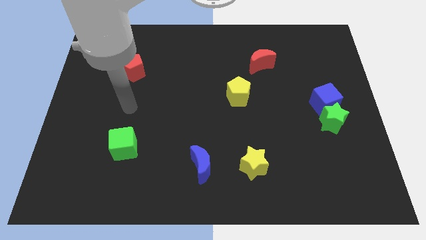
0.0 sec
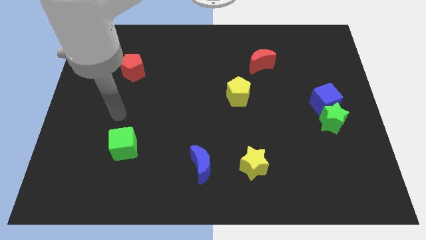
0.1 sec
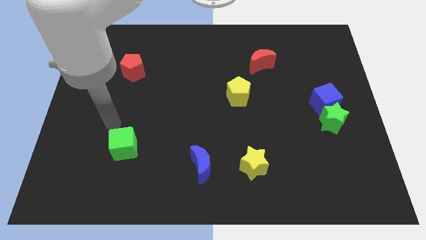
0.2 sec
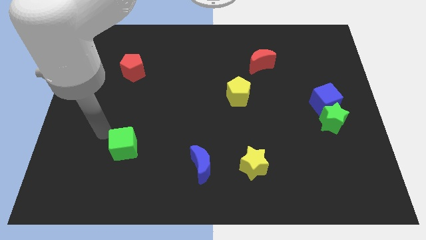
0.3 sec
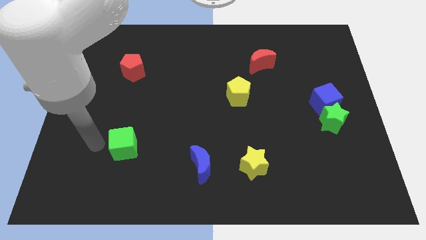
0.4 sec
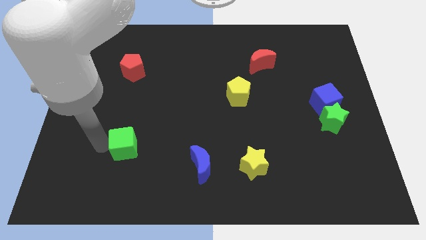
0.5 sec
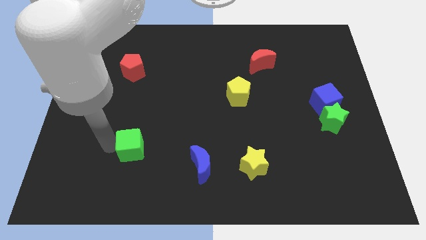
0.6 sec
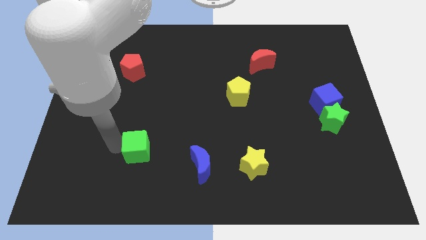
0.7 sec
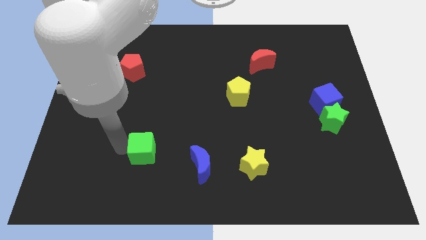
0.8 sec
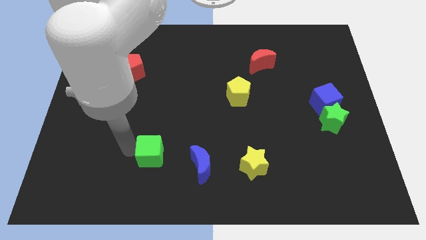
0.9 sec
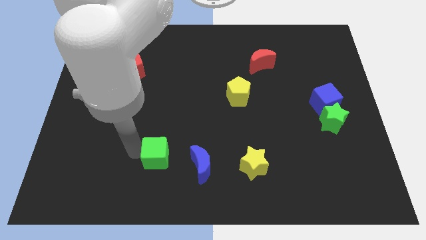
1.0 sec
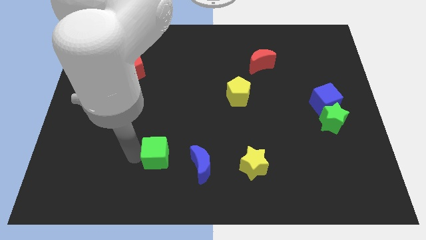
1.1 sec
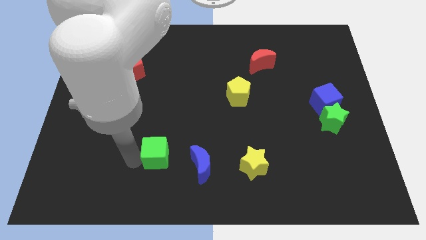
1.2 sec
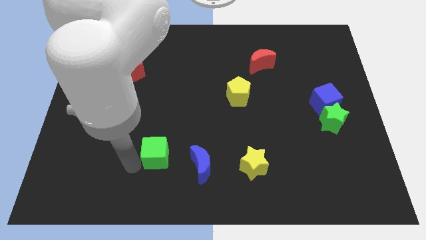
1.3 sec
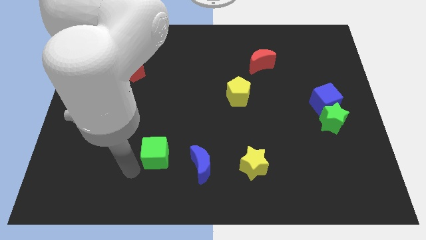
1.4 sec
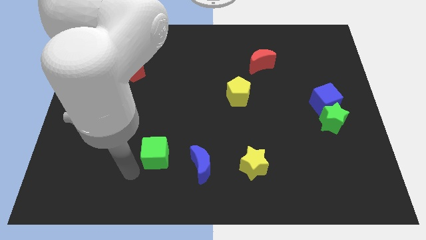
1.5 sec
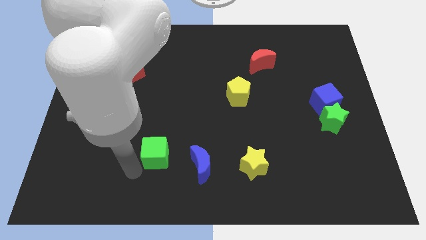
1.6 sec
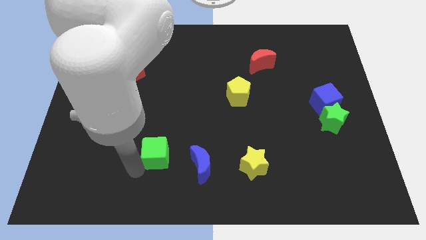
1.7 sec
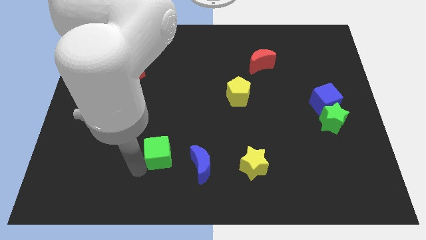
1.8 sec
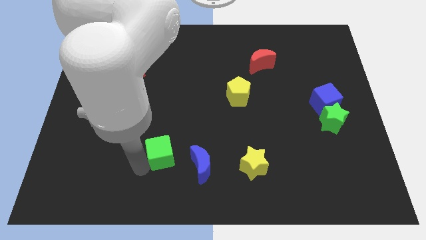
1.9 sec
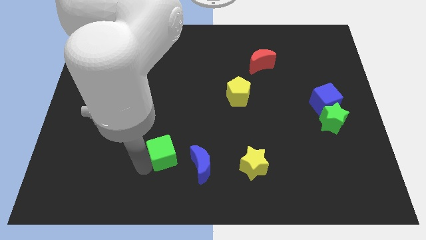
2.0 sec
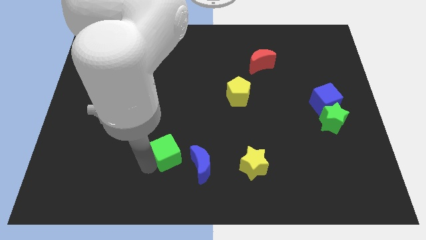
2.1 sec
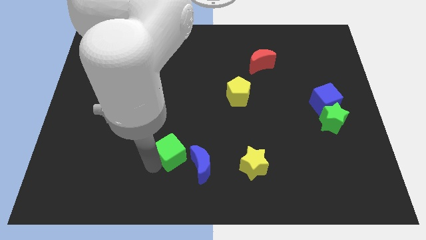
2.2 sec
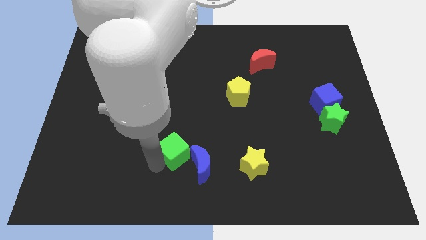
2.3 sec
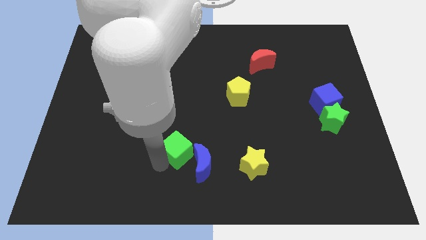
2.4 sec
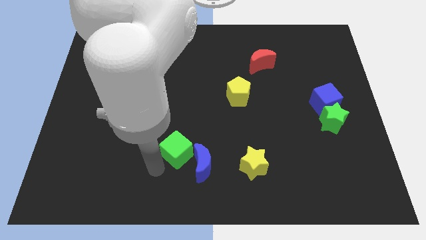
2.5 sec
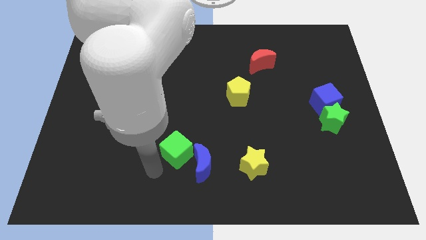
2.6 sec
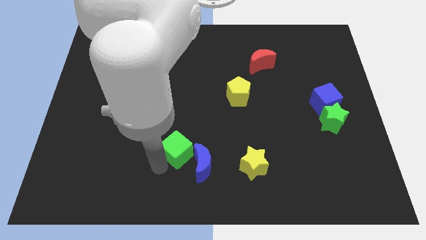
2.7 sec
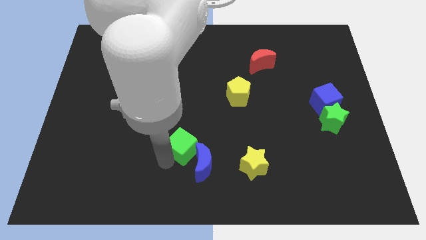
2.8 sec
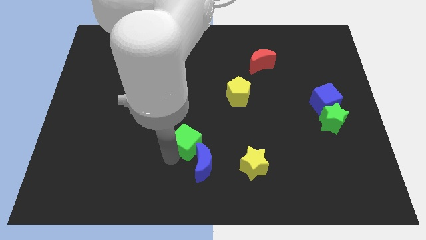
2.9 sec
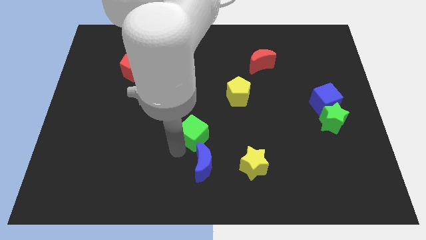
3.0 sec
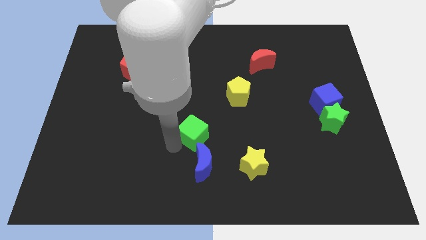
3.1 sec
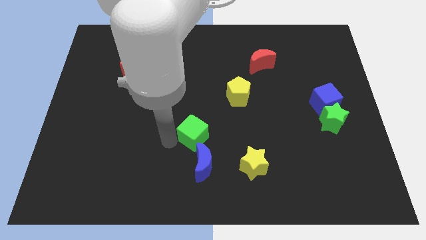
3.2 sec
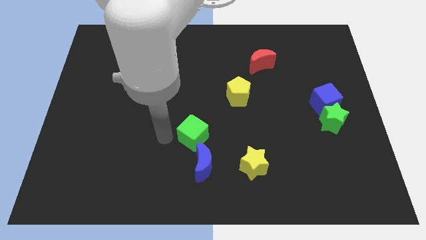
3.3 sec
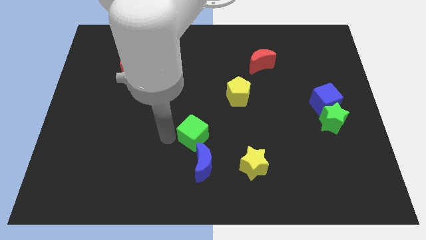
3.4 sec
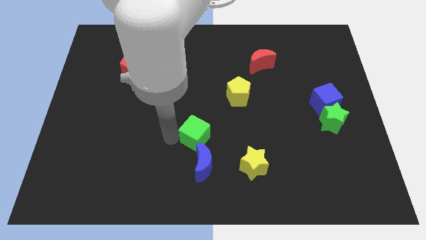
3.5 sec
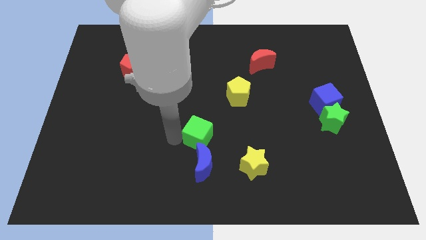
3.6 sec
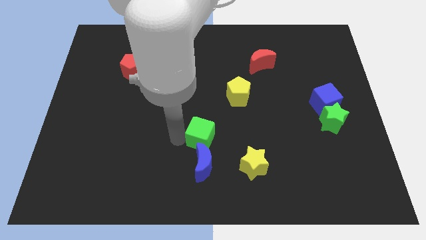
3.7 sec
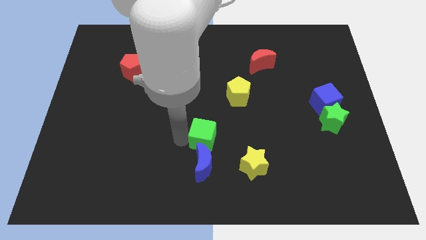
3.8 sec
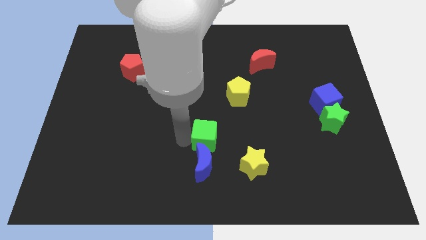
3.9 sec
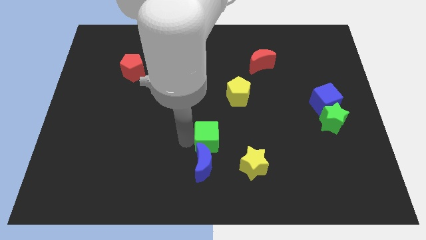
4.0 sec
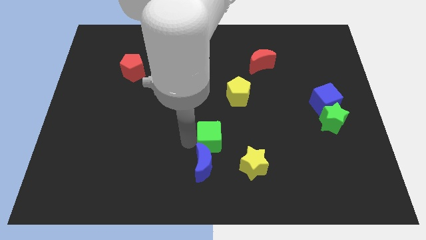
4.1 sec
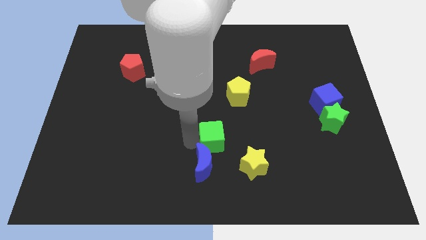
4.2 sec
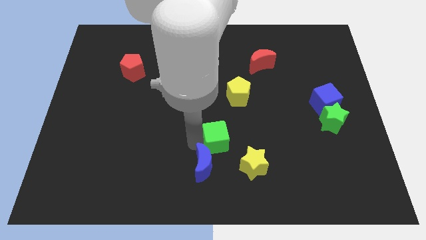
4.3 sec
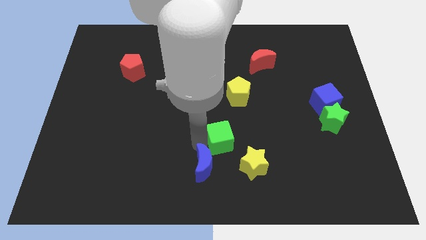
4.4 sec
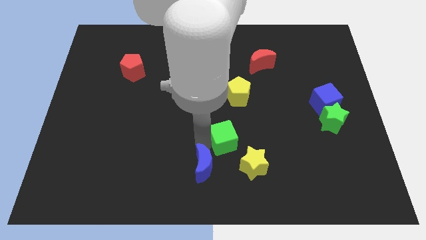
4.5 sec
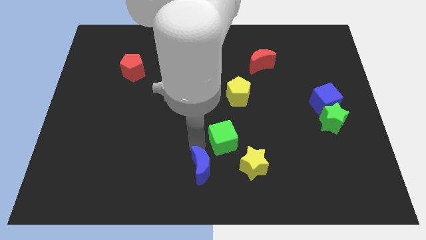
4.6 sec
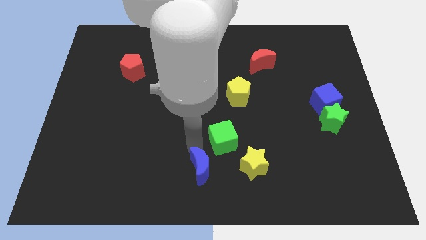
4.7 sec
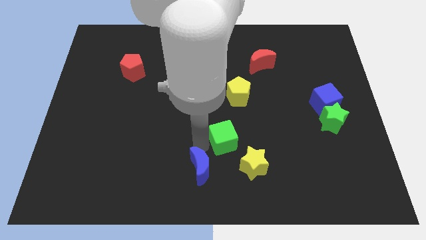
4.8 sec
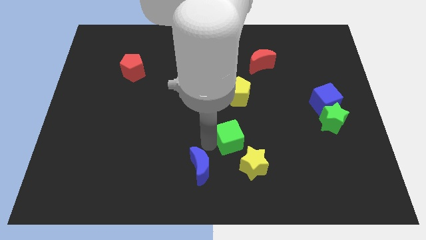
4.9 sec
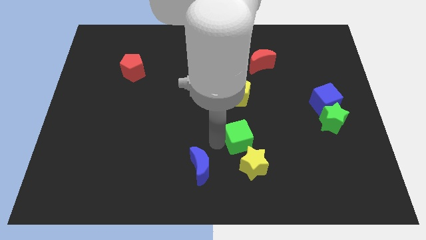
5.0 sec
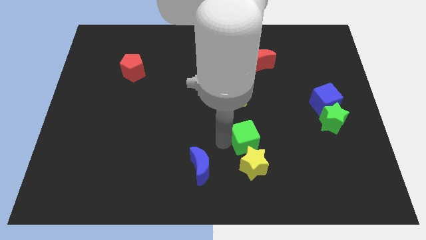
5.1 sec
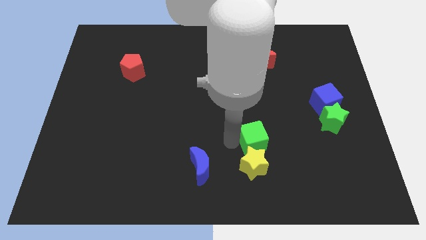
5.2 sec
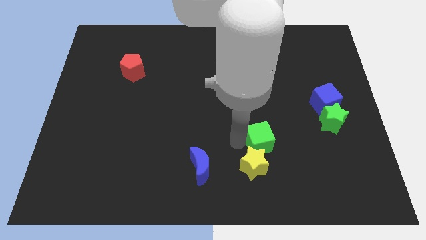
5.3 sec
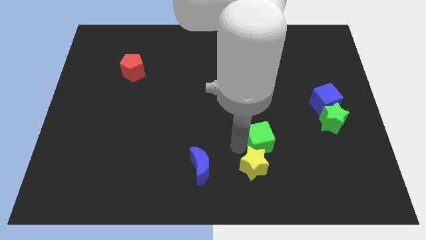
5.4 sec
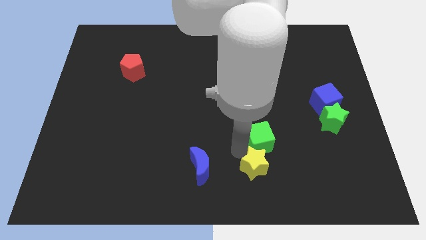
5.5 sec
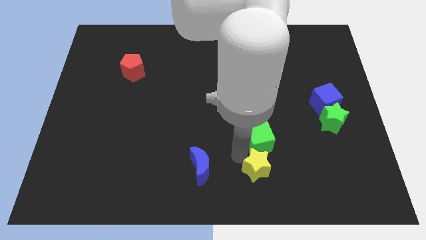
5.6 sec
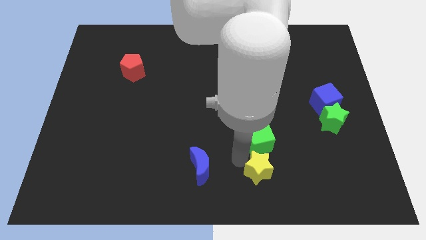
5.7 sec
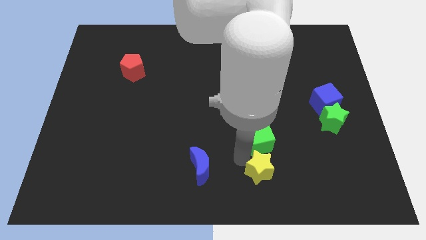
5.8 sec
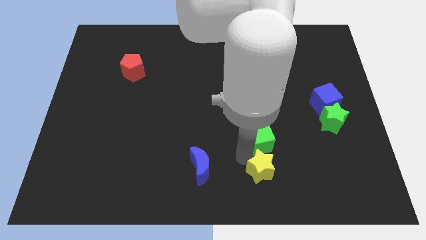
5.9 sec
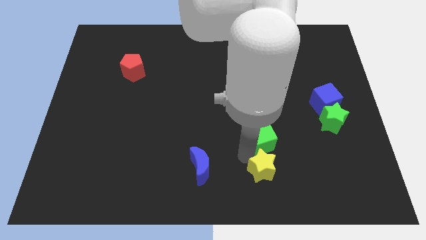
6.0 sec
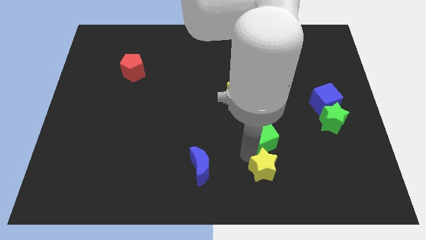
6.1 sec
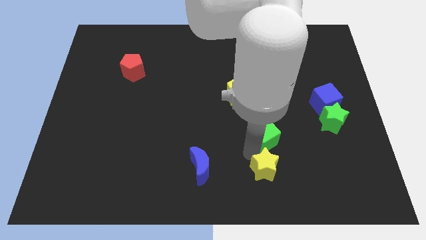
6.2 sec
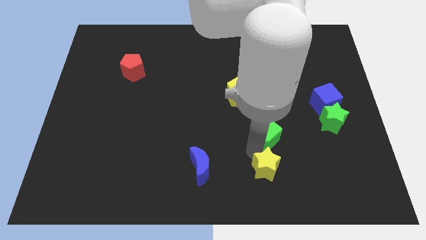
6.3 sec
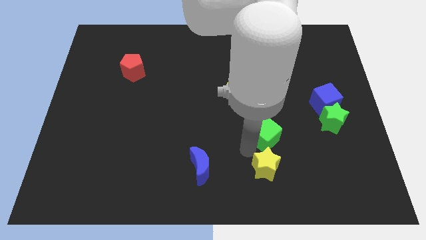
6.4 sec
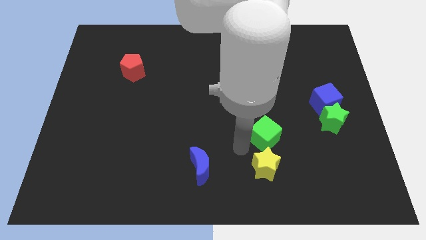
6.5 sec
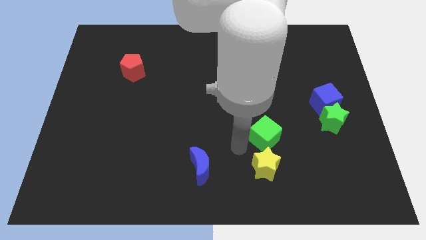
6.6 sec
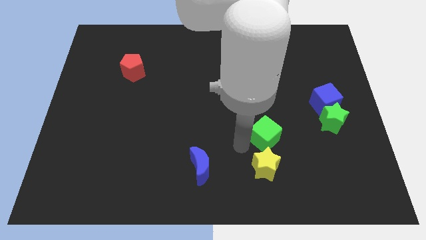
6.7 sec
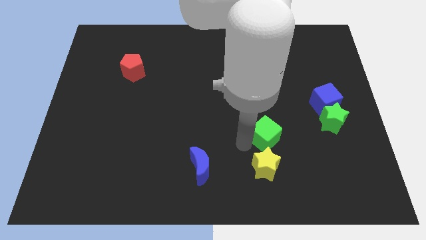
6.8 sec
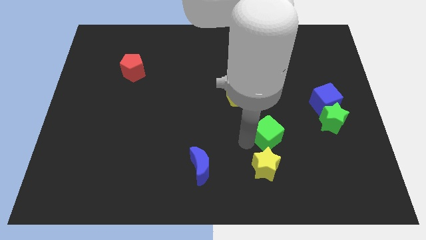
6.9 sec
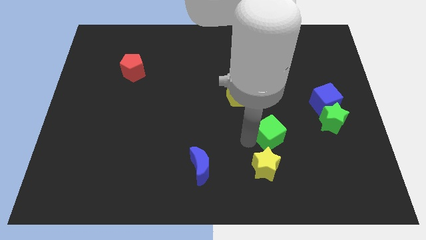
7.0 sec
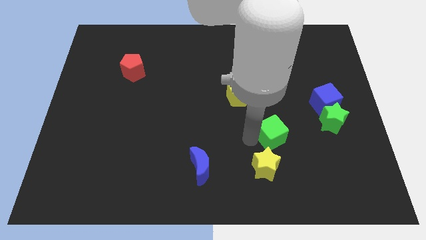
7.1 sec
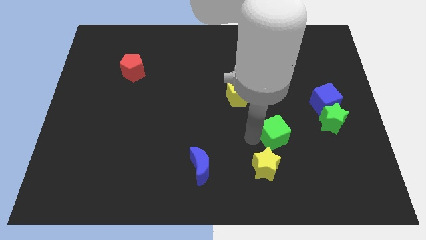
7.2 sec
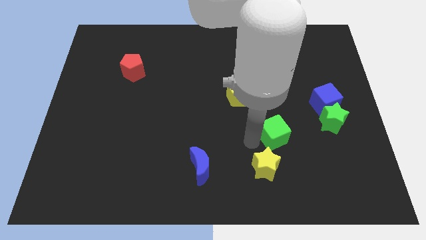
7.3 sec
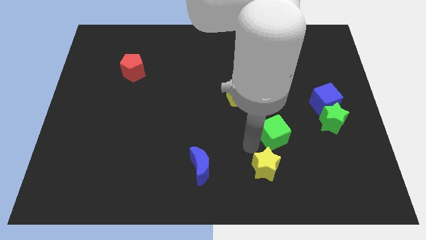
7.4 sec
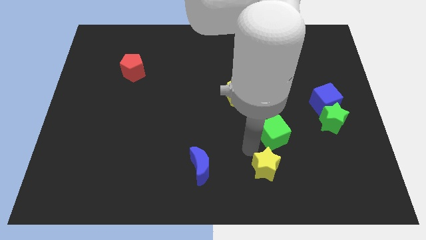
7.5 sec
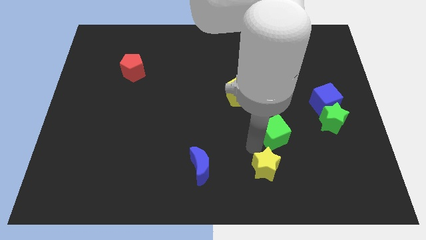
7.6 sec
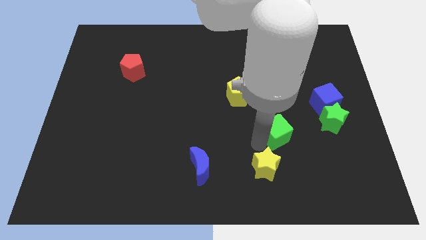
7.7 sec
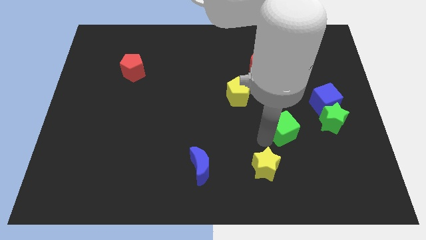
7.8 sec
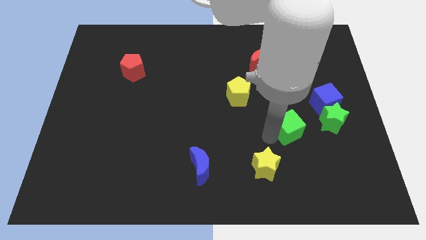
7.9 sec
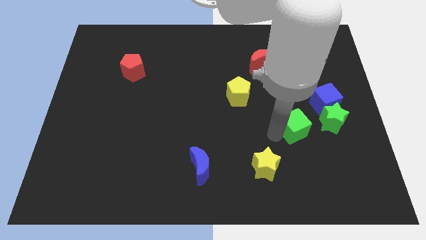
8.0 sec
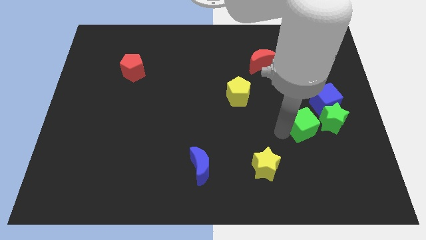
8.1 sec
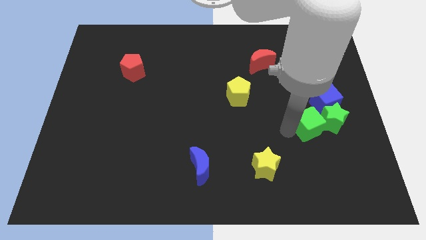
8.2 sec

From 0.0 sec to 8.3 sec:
push the green cube close to the green star

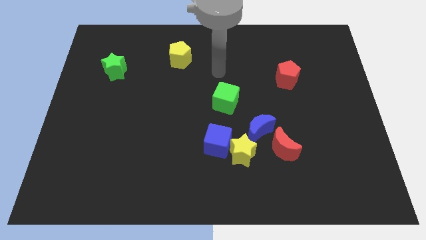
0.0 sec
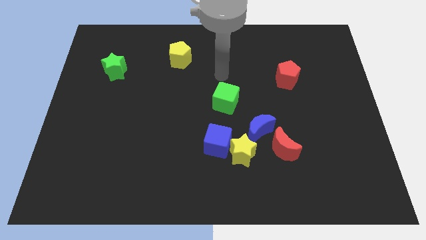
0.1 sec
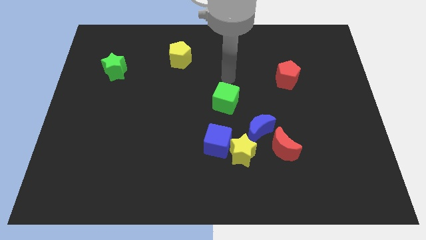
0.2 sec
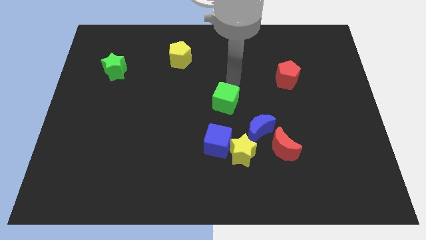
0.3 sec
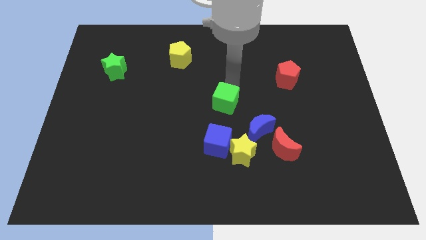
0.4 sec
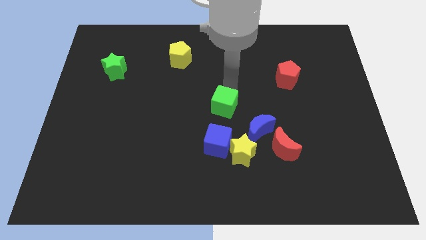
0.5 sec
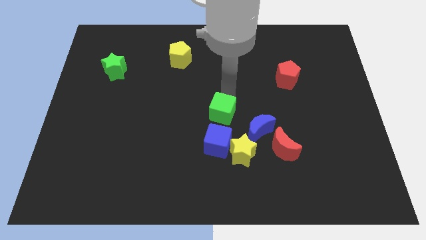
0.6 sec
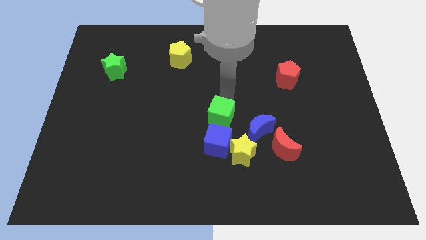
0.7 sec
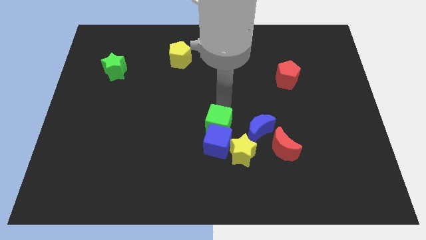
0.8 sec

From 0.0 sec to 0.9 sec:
push the green cube close to the blue cube
